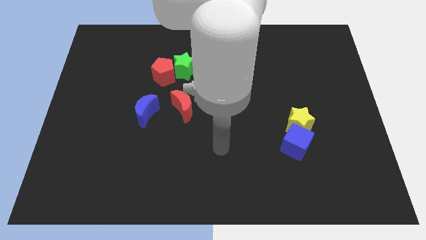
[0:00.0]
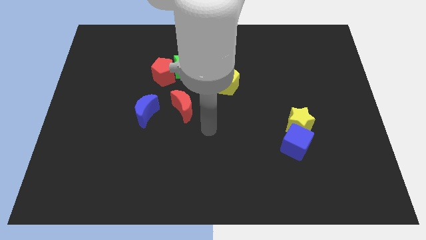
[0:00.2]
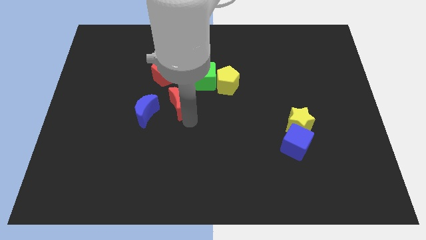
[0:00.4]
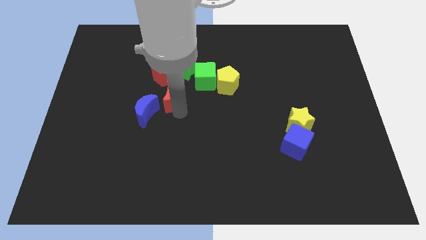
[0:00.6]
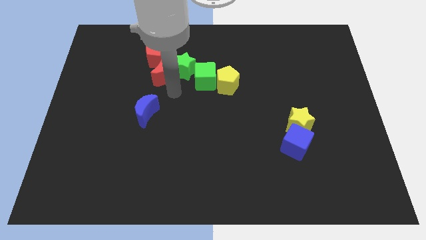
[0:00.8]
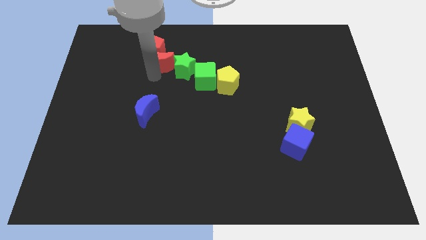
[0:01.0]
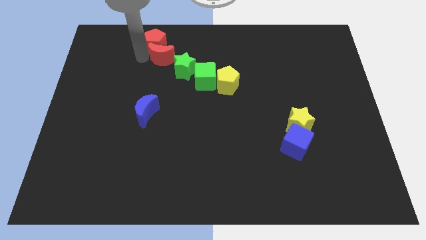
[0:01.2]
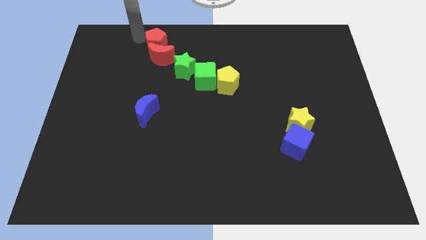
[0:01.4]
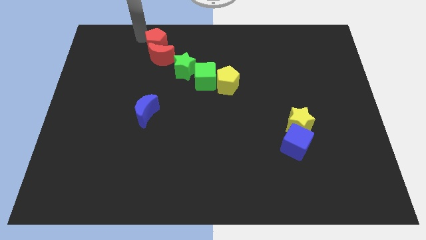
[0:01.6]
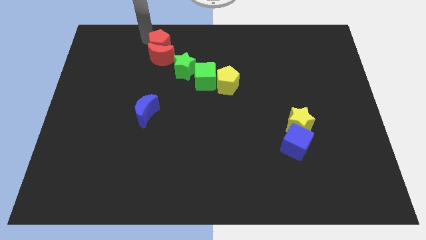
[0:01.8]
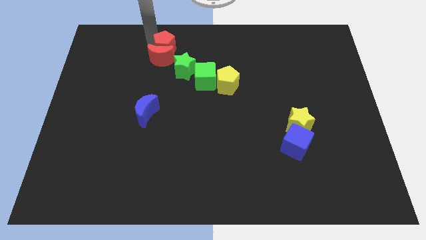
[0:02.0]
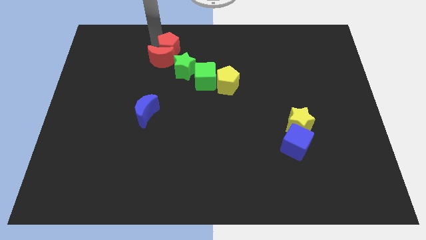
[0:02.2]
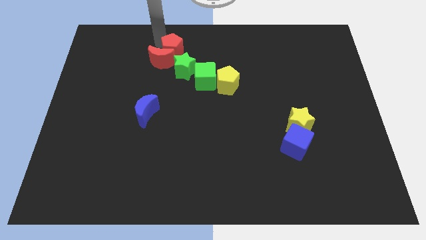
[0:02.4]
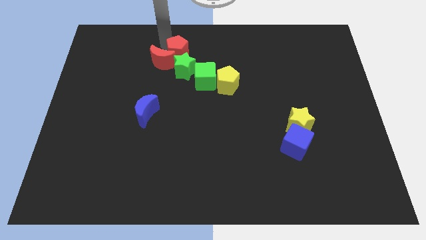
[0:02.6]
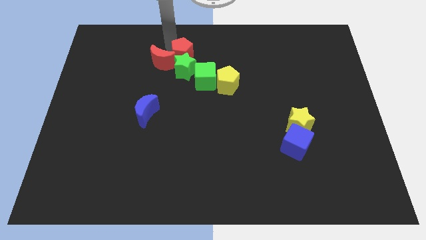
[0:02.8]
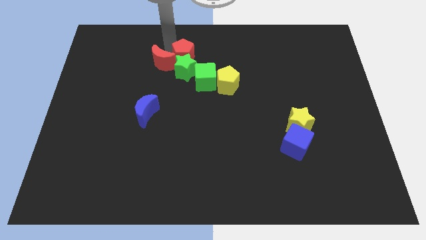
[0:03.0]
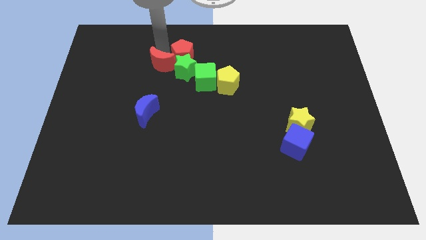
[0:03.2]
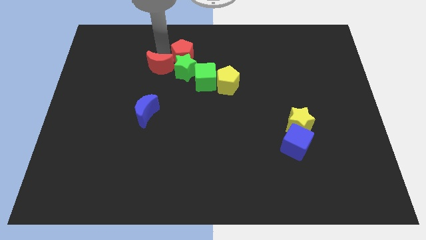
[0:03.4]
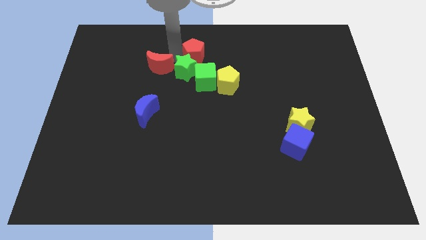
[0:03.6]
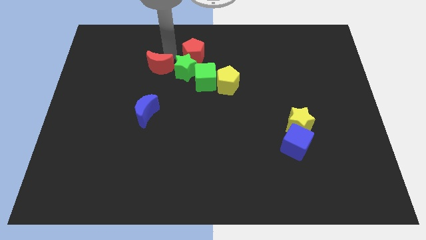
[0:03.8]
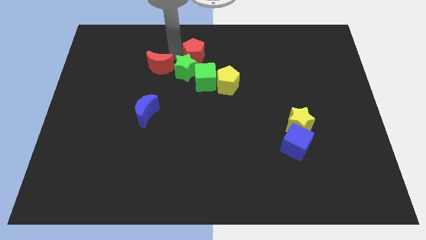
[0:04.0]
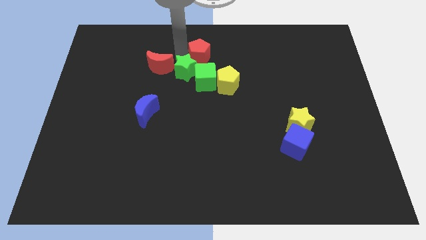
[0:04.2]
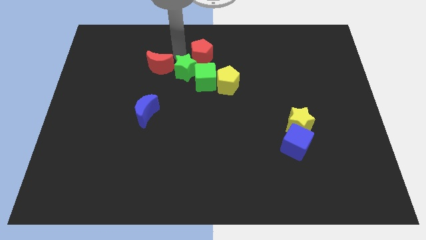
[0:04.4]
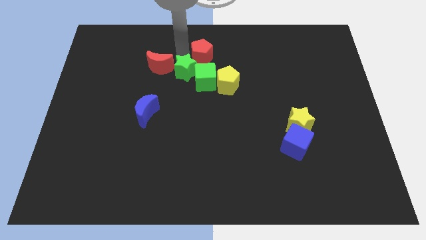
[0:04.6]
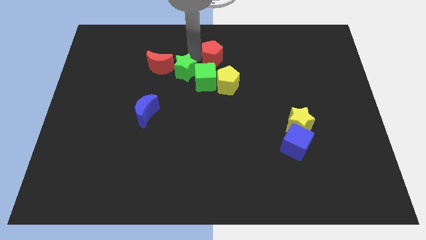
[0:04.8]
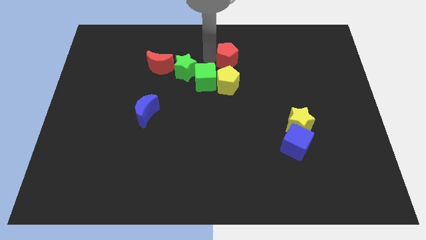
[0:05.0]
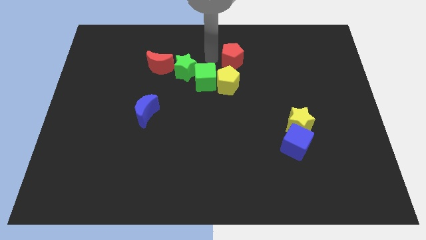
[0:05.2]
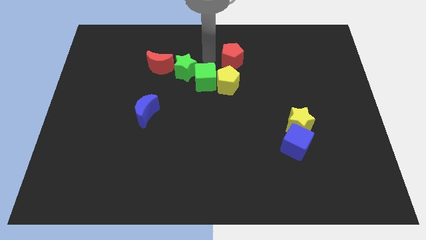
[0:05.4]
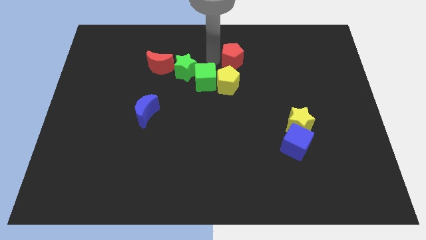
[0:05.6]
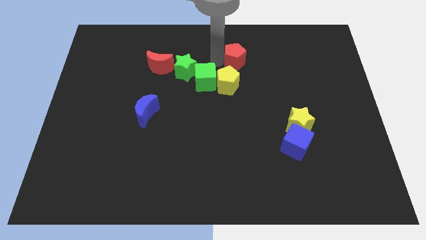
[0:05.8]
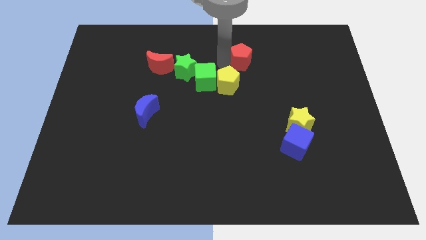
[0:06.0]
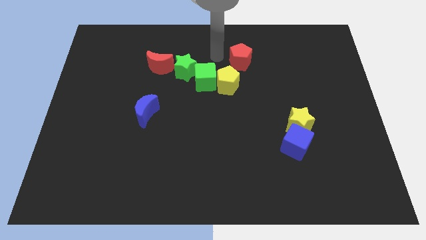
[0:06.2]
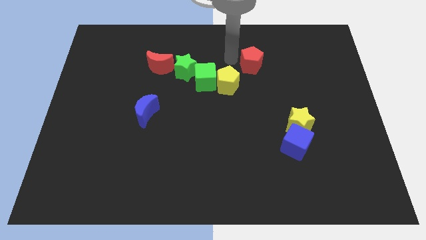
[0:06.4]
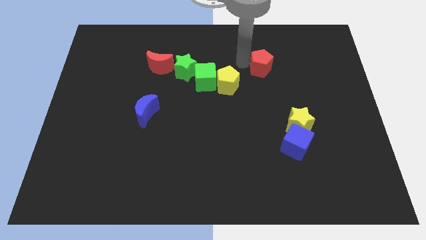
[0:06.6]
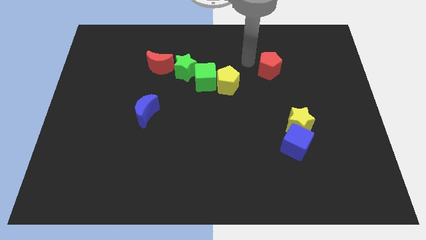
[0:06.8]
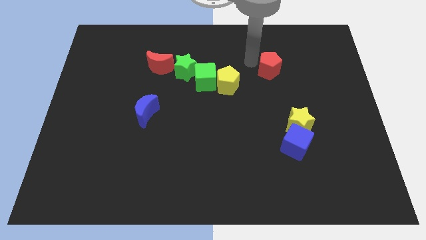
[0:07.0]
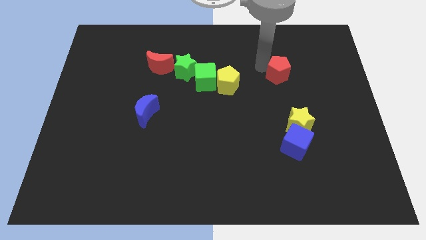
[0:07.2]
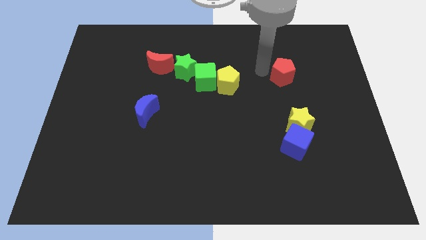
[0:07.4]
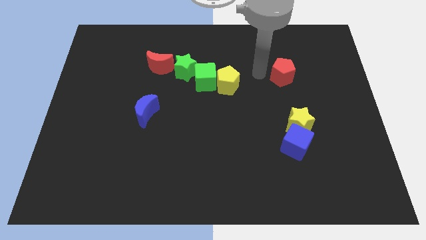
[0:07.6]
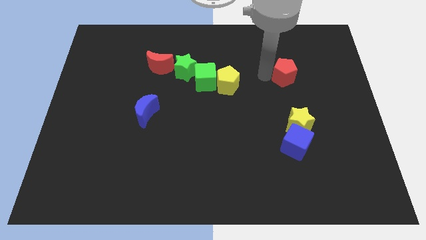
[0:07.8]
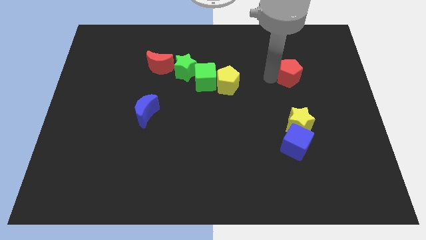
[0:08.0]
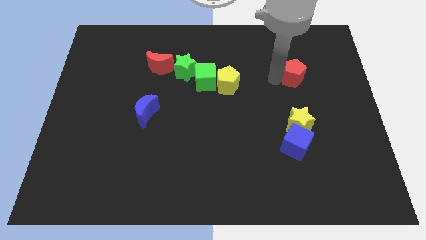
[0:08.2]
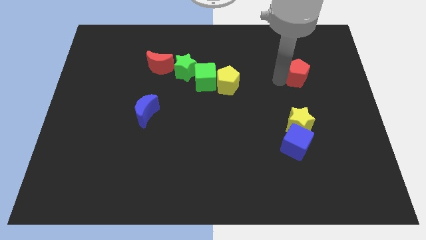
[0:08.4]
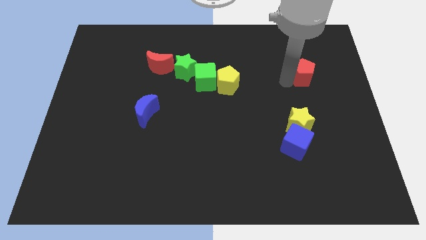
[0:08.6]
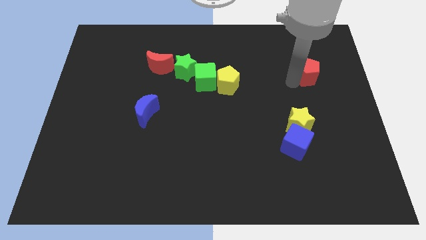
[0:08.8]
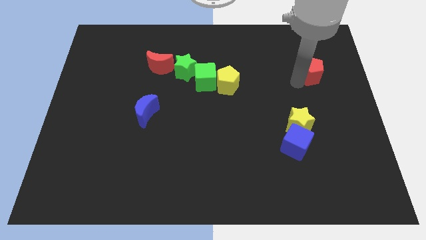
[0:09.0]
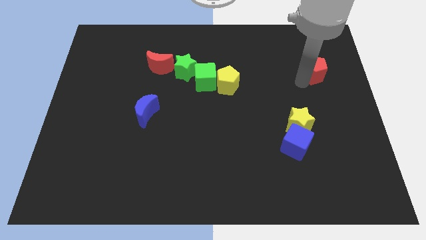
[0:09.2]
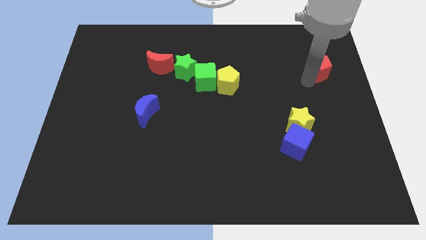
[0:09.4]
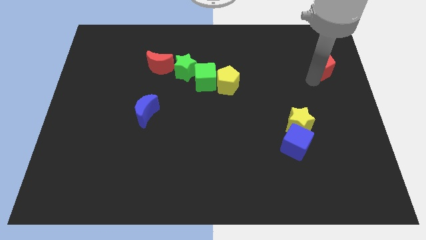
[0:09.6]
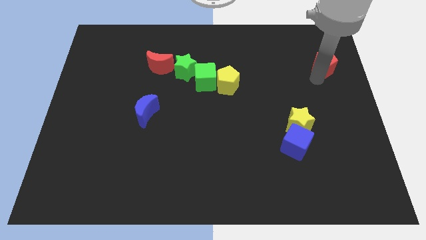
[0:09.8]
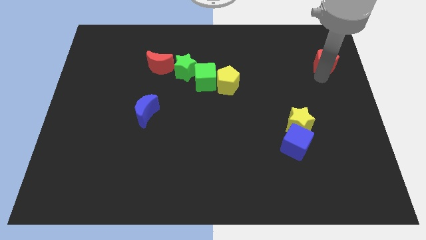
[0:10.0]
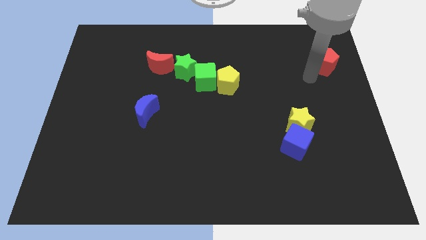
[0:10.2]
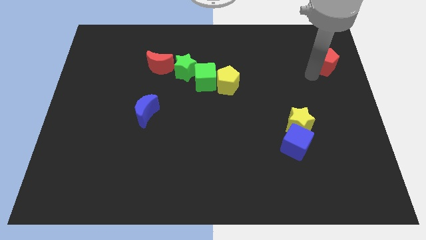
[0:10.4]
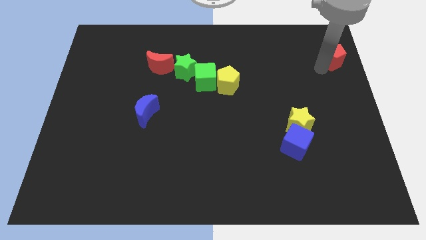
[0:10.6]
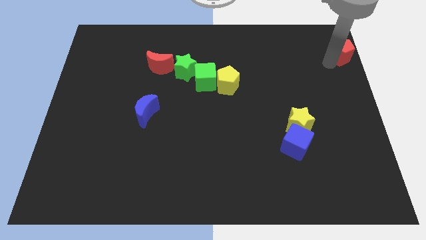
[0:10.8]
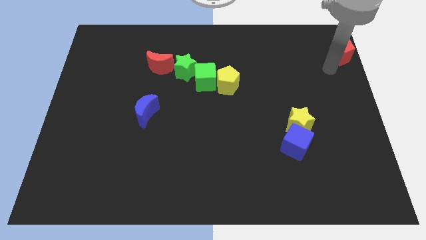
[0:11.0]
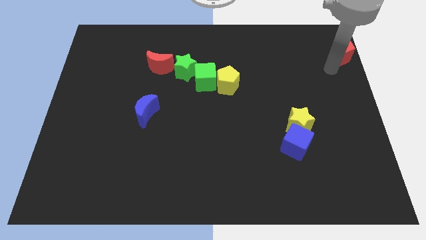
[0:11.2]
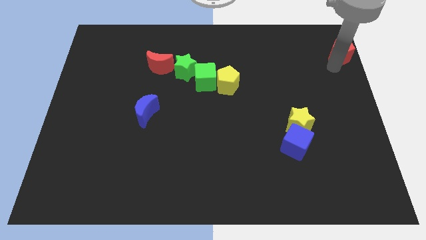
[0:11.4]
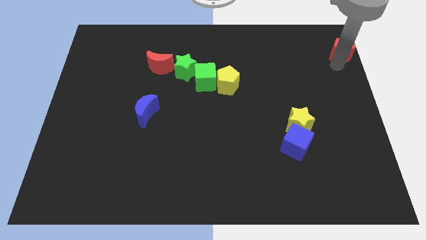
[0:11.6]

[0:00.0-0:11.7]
put the red pentagon to the upper right corner

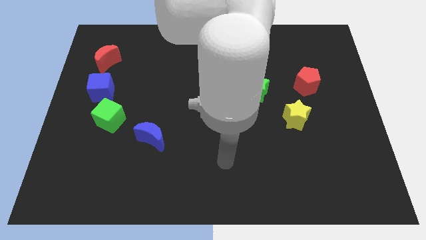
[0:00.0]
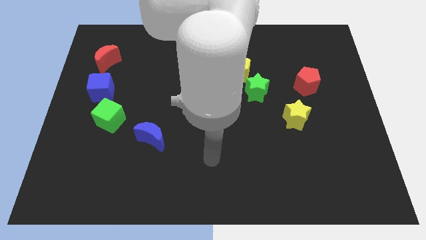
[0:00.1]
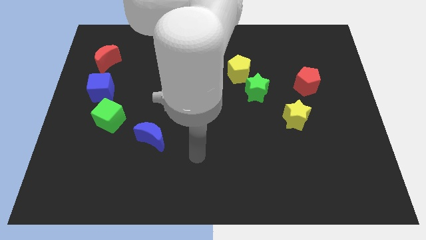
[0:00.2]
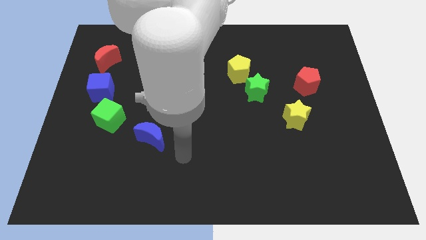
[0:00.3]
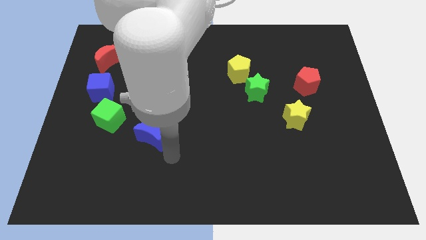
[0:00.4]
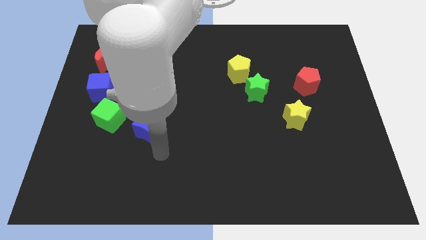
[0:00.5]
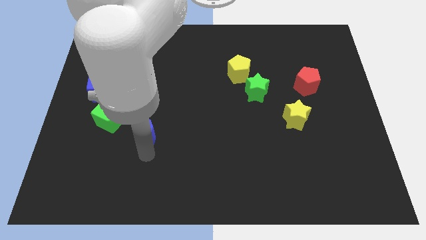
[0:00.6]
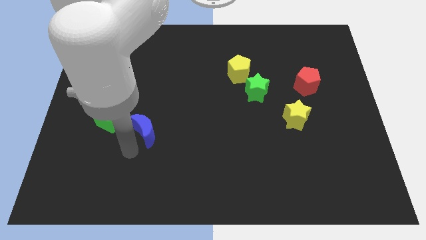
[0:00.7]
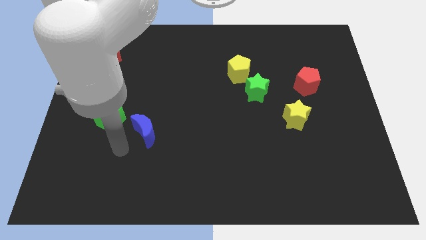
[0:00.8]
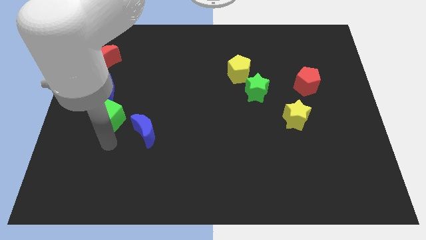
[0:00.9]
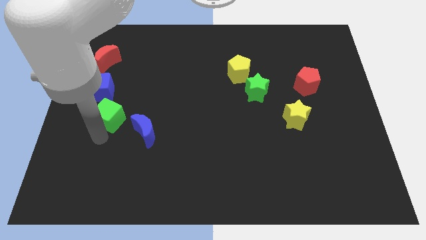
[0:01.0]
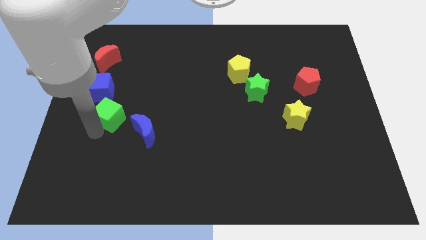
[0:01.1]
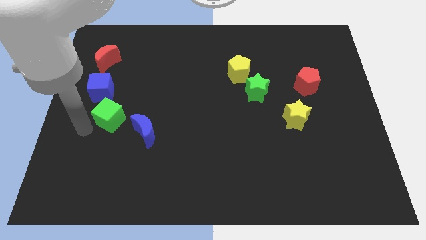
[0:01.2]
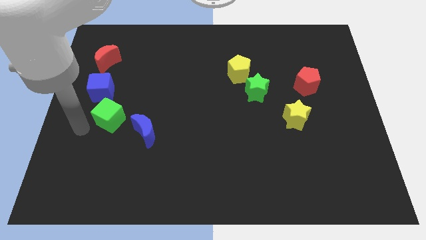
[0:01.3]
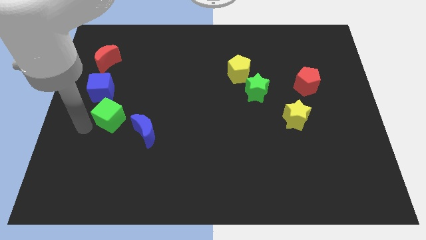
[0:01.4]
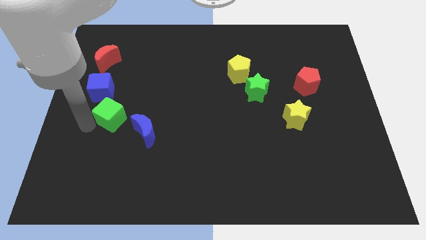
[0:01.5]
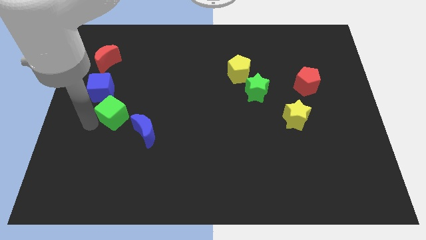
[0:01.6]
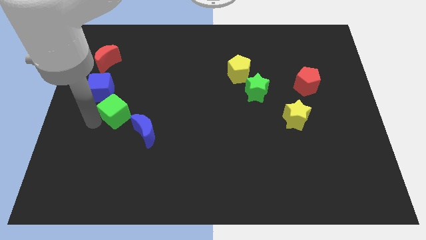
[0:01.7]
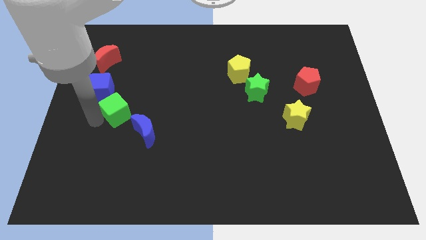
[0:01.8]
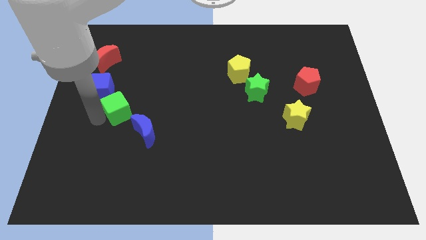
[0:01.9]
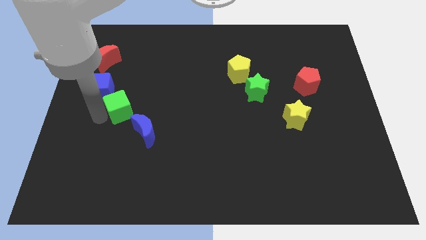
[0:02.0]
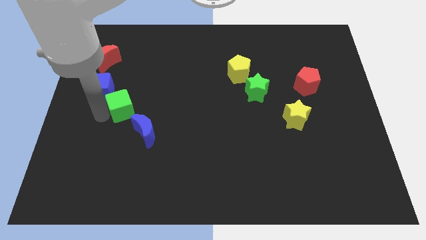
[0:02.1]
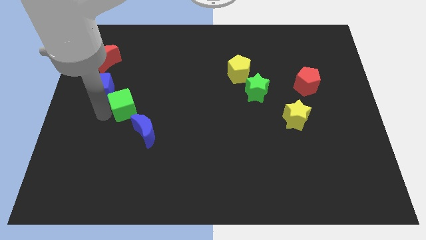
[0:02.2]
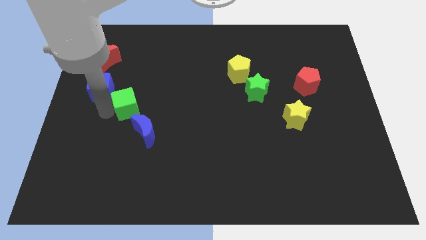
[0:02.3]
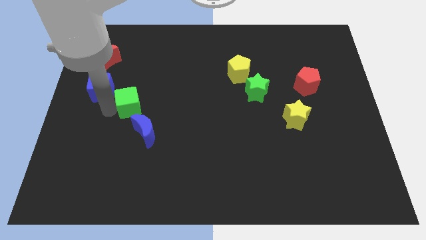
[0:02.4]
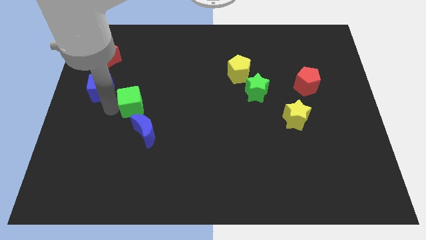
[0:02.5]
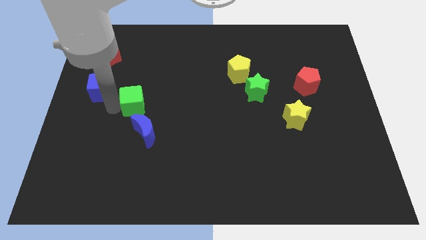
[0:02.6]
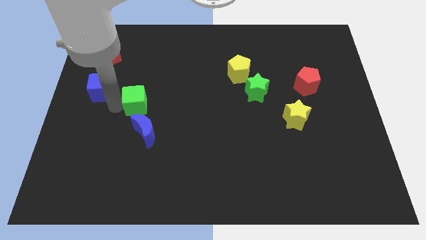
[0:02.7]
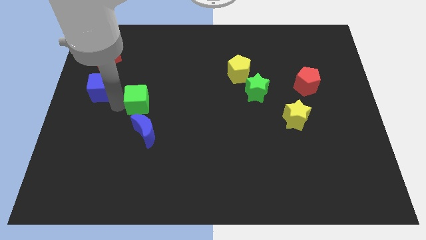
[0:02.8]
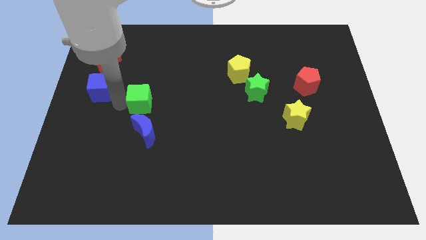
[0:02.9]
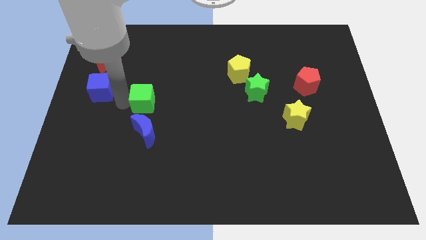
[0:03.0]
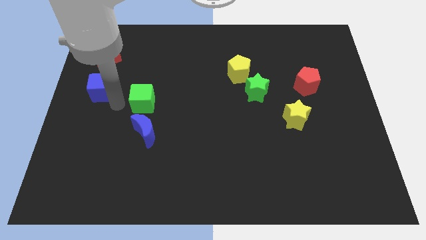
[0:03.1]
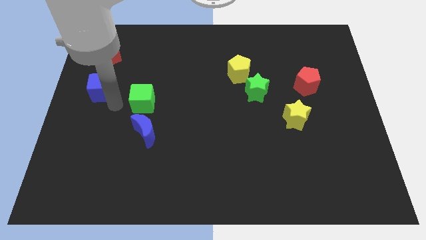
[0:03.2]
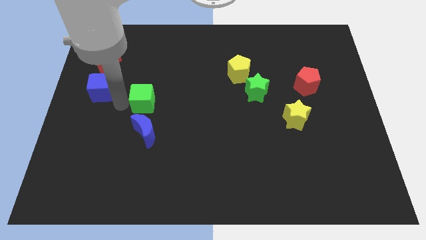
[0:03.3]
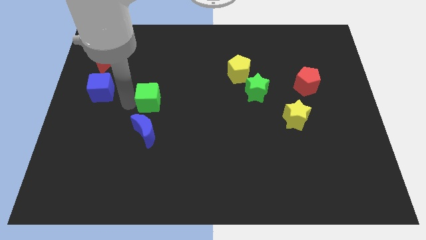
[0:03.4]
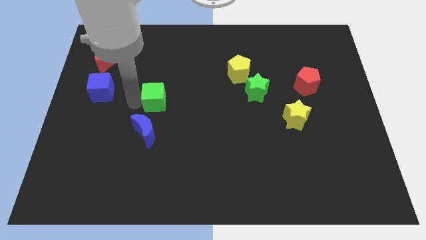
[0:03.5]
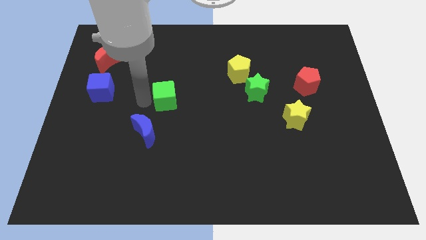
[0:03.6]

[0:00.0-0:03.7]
put the green cube to the middle of the board
